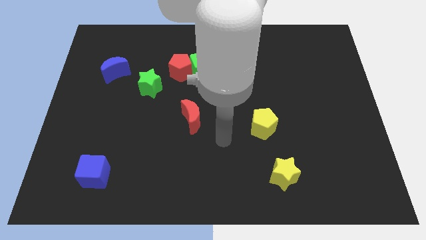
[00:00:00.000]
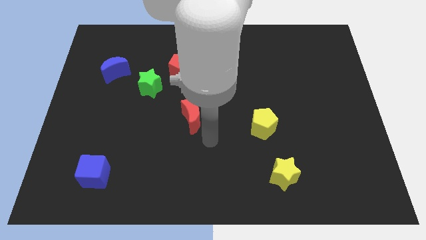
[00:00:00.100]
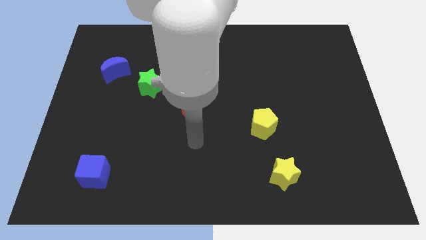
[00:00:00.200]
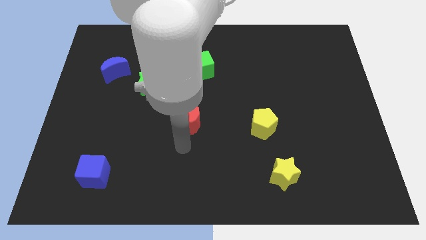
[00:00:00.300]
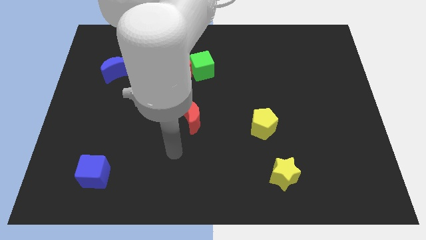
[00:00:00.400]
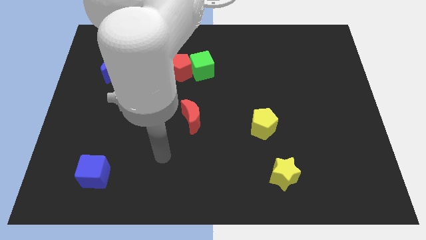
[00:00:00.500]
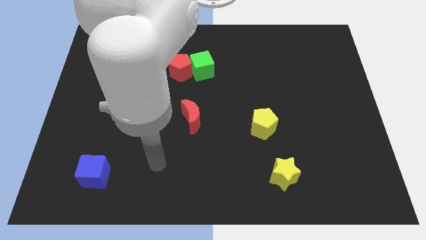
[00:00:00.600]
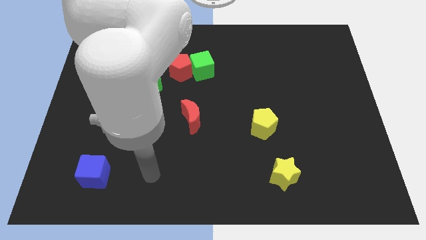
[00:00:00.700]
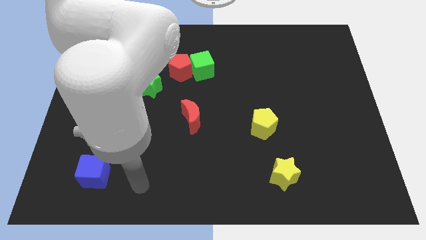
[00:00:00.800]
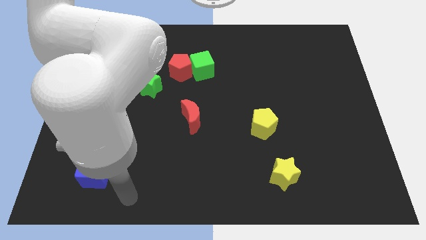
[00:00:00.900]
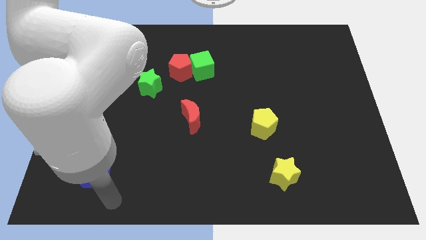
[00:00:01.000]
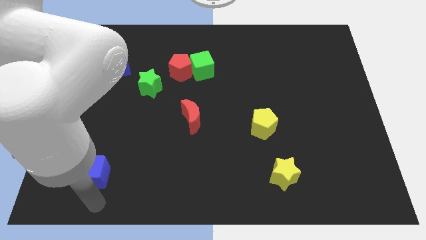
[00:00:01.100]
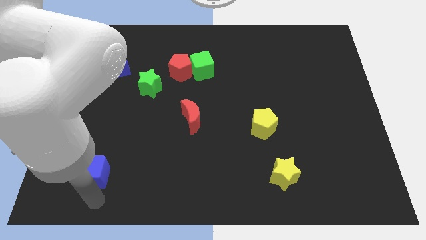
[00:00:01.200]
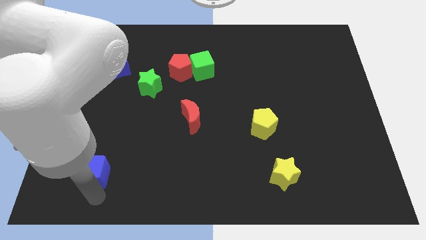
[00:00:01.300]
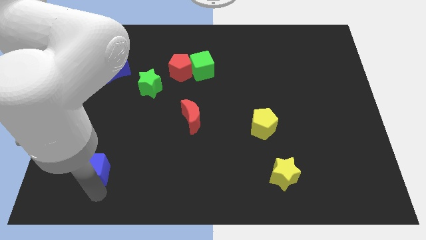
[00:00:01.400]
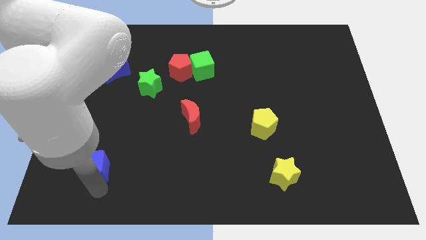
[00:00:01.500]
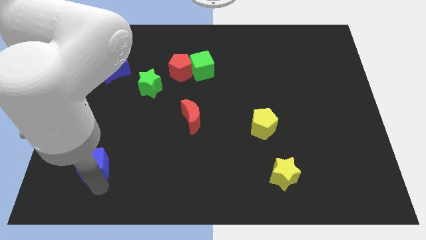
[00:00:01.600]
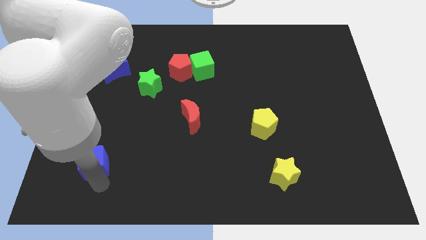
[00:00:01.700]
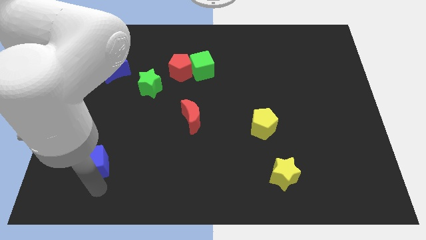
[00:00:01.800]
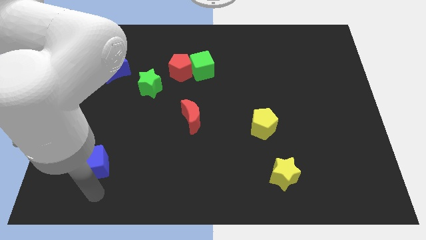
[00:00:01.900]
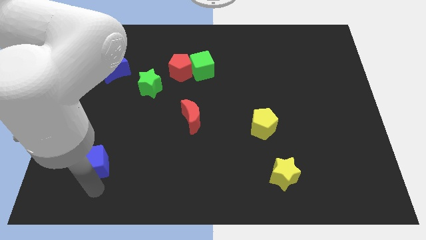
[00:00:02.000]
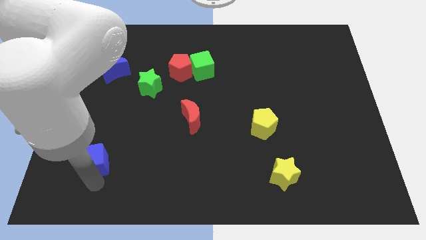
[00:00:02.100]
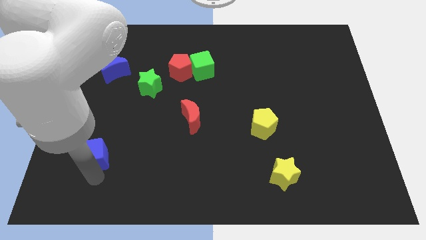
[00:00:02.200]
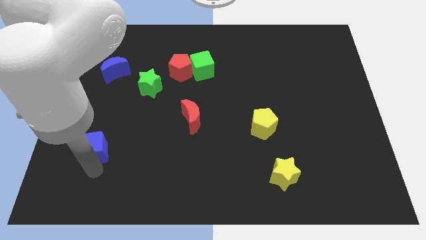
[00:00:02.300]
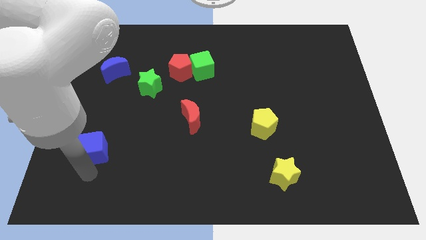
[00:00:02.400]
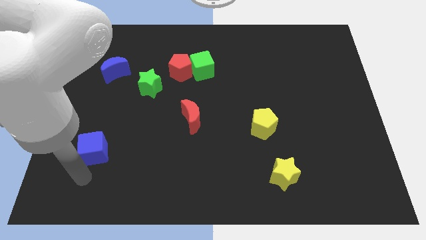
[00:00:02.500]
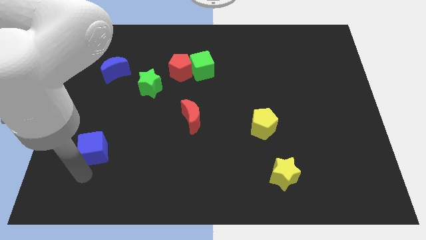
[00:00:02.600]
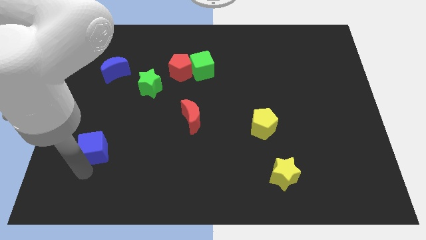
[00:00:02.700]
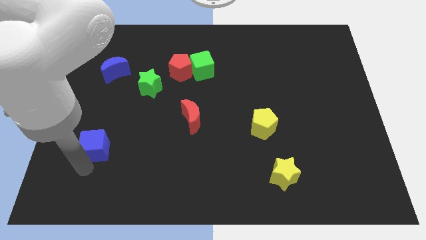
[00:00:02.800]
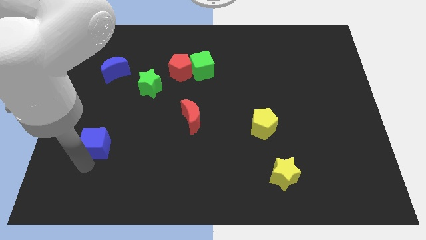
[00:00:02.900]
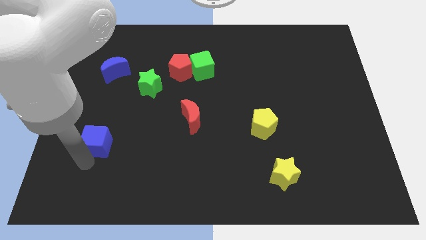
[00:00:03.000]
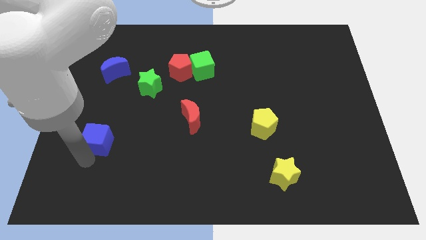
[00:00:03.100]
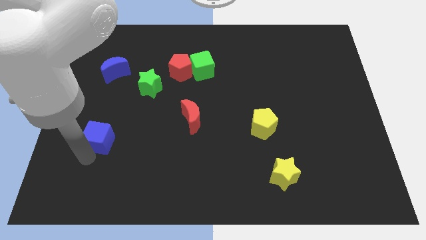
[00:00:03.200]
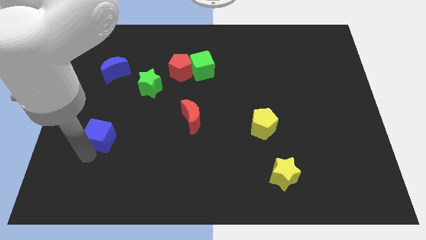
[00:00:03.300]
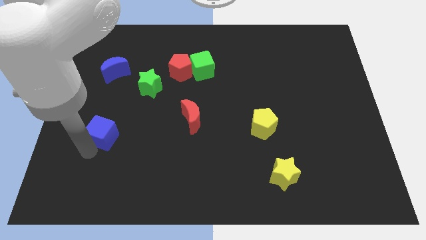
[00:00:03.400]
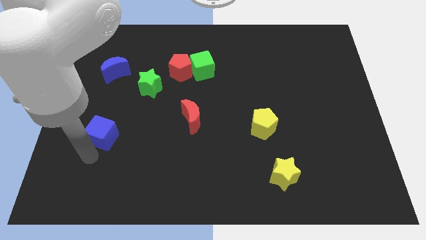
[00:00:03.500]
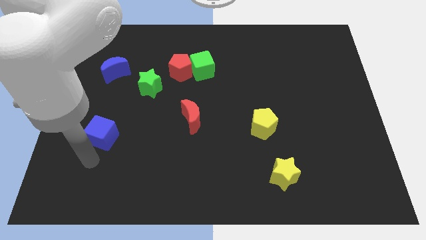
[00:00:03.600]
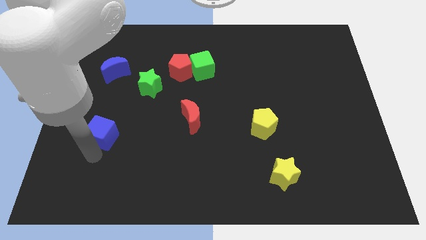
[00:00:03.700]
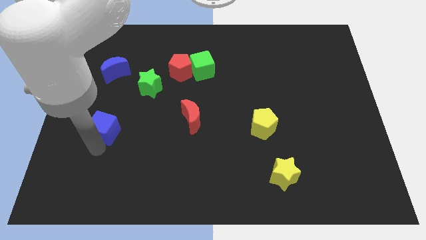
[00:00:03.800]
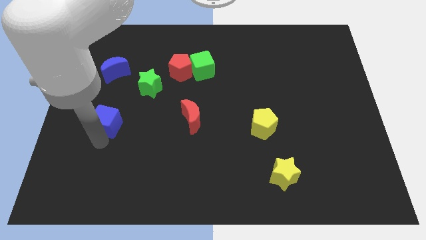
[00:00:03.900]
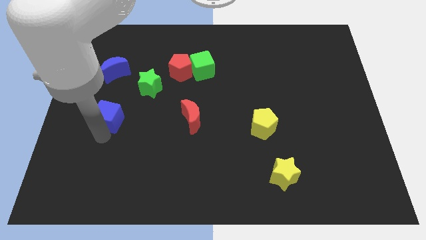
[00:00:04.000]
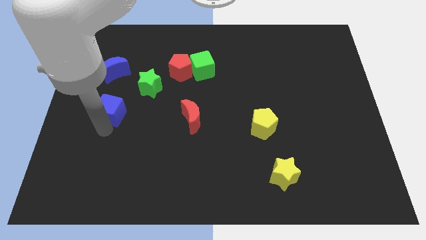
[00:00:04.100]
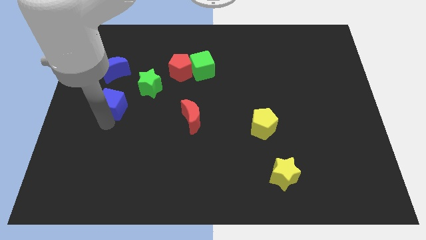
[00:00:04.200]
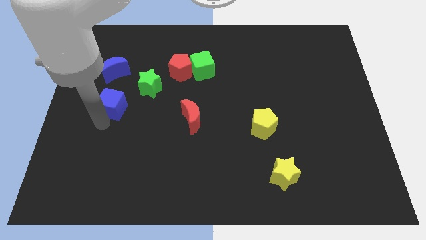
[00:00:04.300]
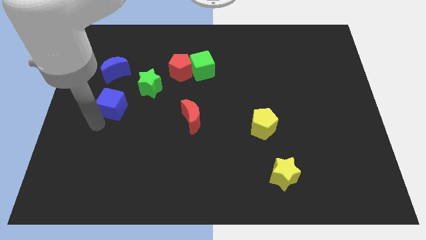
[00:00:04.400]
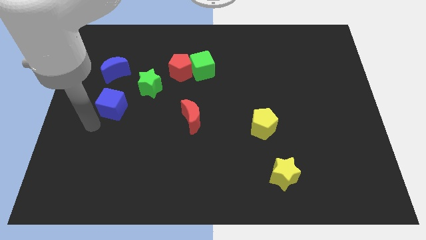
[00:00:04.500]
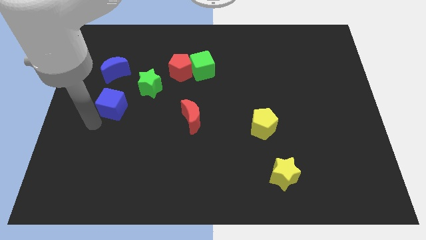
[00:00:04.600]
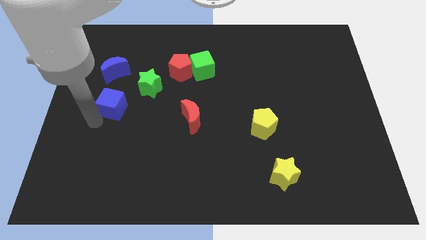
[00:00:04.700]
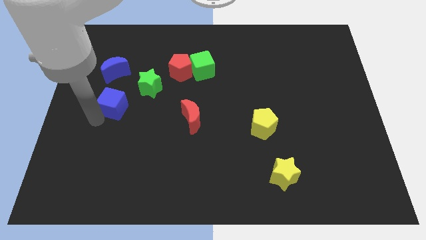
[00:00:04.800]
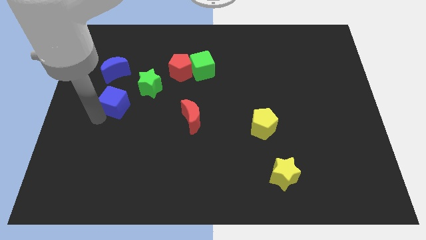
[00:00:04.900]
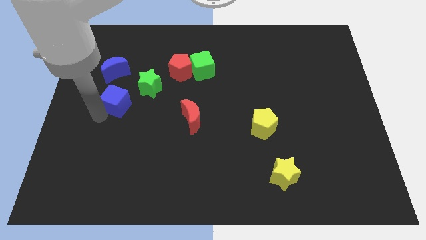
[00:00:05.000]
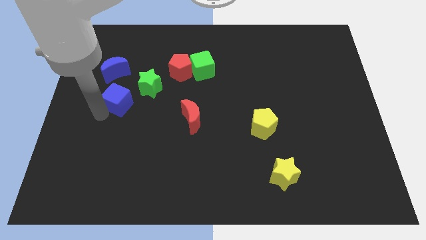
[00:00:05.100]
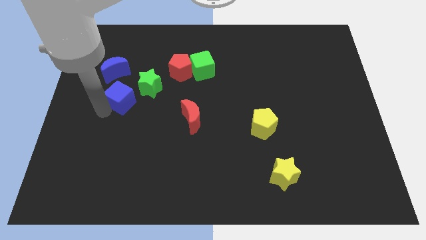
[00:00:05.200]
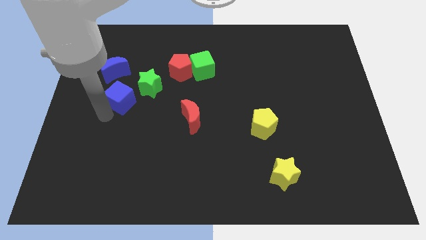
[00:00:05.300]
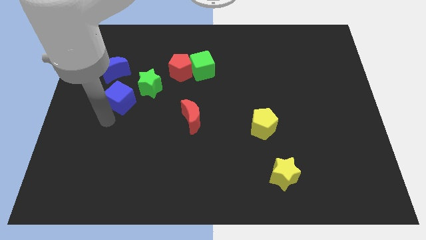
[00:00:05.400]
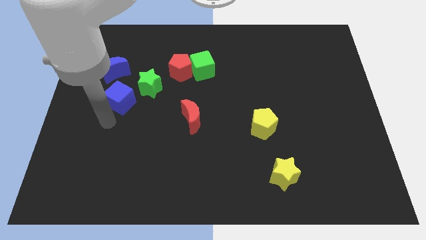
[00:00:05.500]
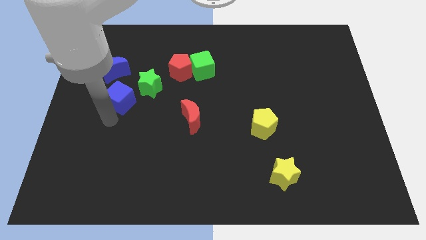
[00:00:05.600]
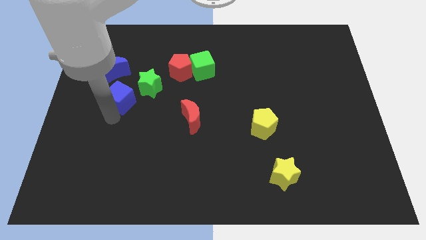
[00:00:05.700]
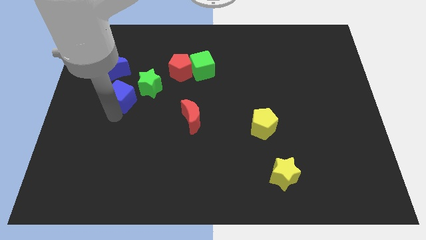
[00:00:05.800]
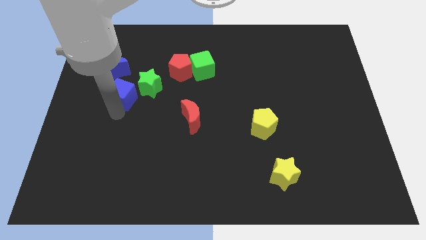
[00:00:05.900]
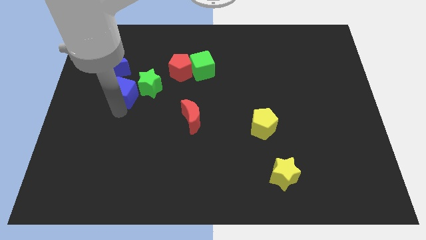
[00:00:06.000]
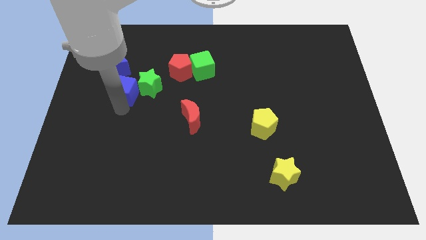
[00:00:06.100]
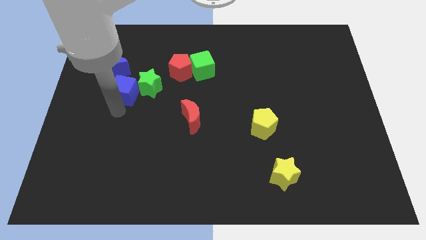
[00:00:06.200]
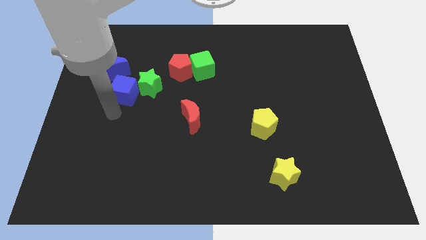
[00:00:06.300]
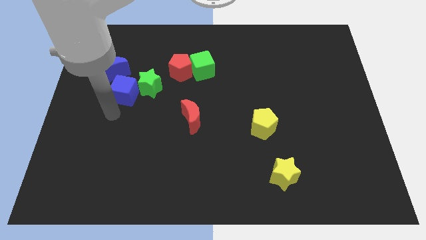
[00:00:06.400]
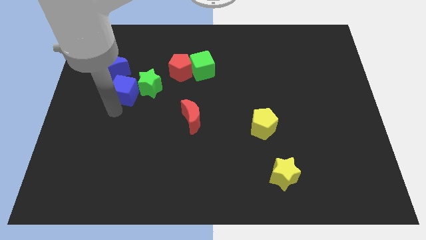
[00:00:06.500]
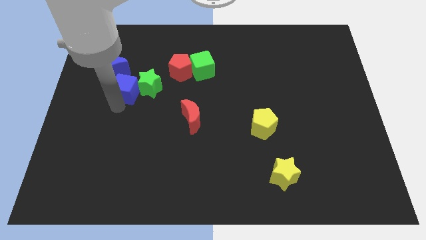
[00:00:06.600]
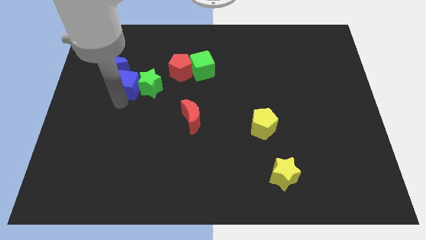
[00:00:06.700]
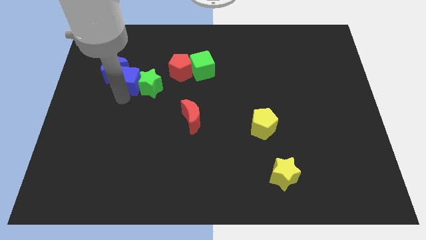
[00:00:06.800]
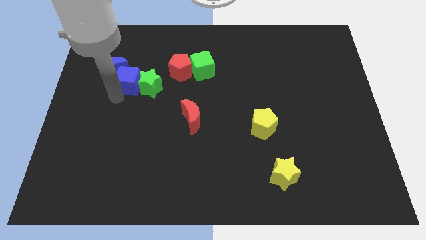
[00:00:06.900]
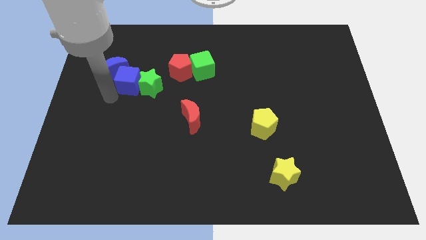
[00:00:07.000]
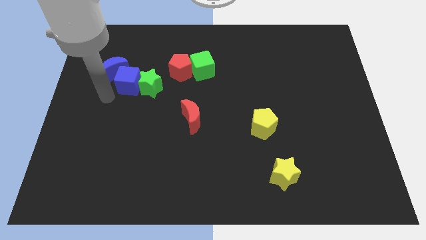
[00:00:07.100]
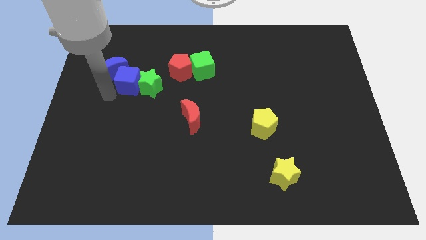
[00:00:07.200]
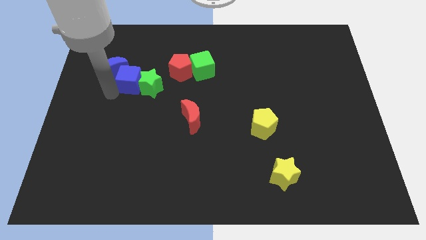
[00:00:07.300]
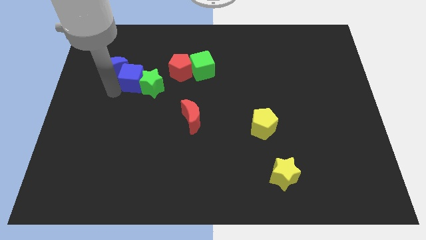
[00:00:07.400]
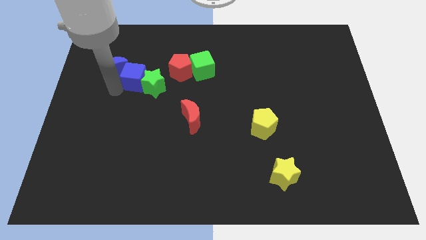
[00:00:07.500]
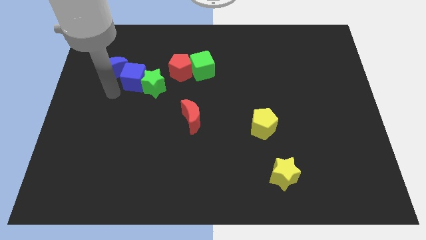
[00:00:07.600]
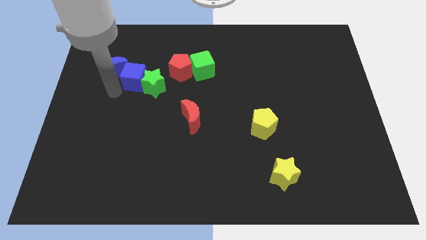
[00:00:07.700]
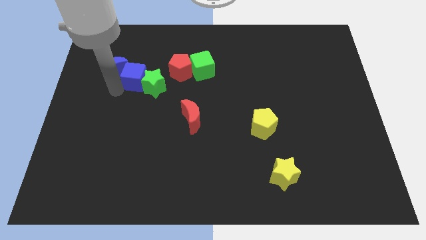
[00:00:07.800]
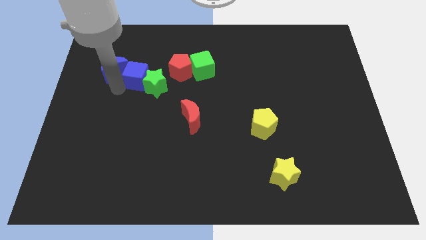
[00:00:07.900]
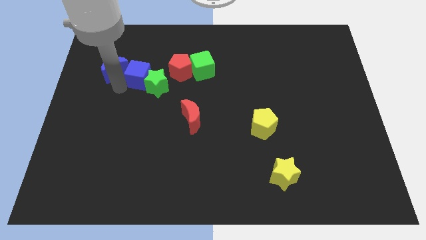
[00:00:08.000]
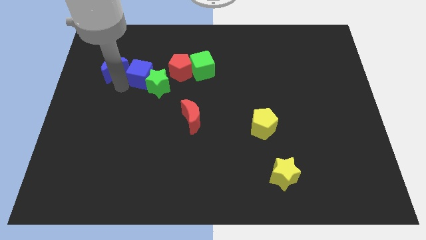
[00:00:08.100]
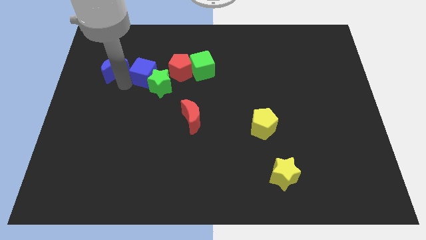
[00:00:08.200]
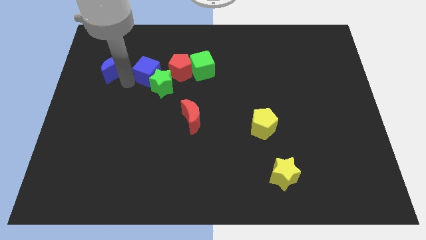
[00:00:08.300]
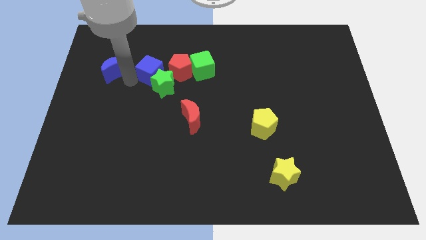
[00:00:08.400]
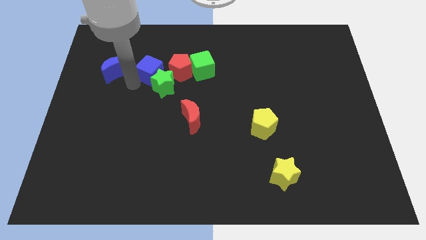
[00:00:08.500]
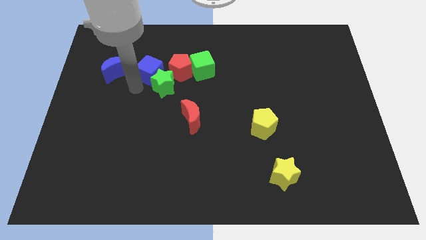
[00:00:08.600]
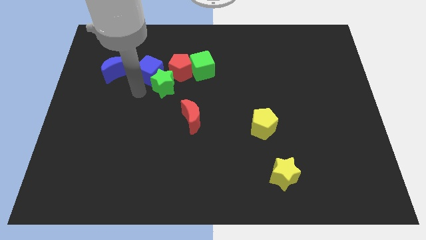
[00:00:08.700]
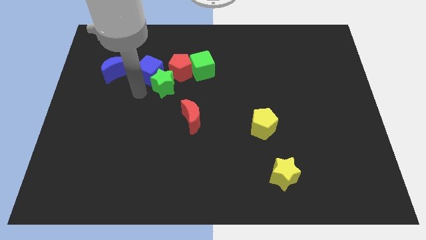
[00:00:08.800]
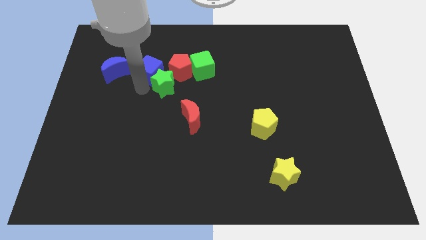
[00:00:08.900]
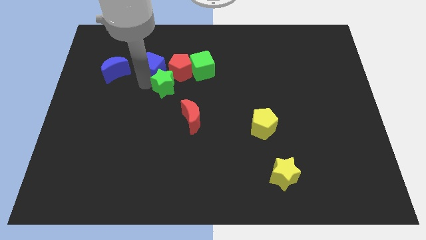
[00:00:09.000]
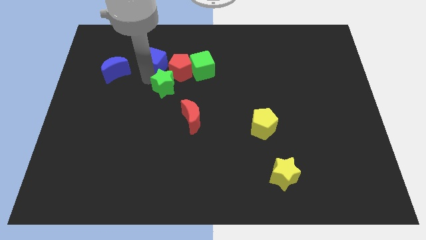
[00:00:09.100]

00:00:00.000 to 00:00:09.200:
push the blue cube diagonally up and to the left of the red pentagon
